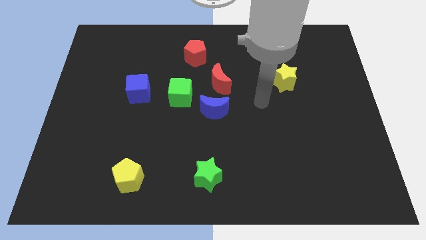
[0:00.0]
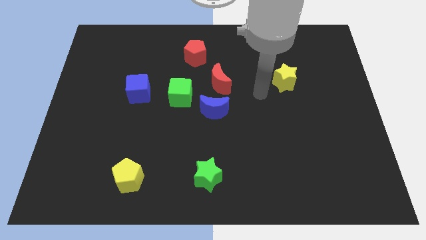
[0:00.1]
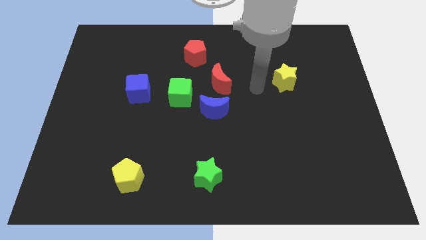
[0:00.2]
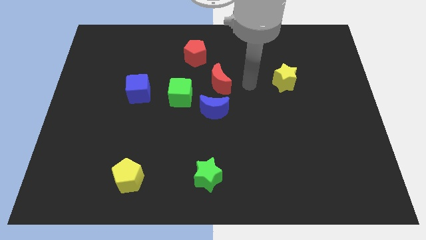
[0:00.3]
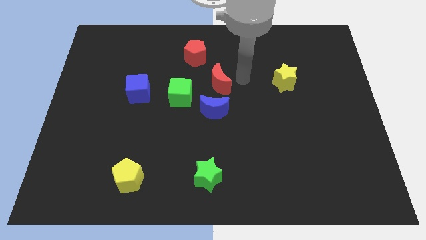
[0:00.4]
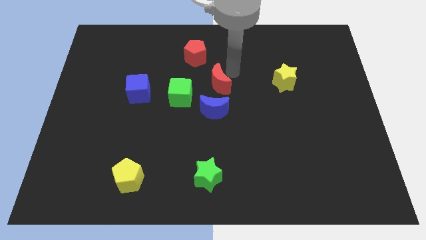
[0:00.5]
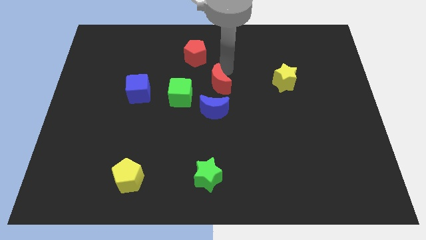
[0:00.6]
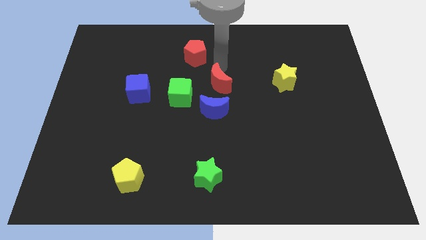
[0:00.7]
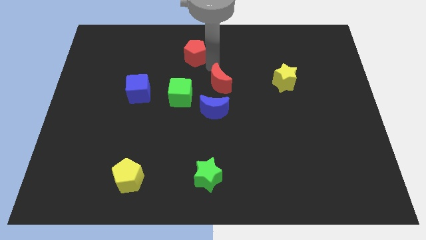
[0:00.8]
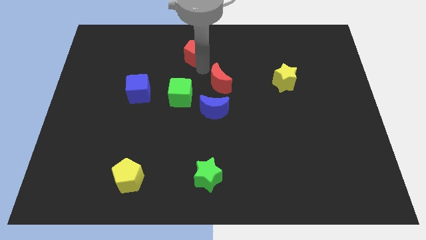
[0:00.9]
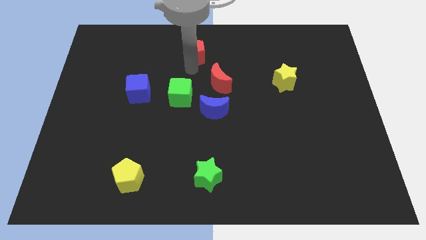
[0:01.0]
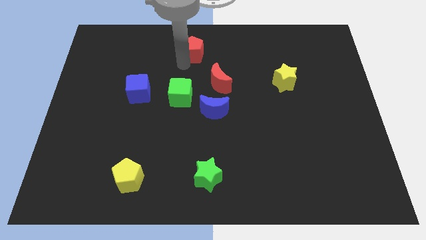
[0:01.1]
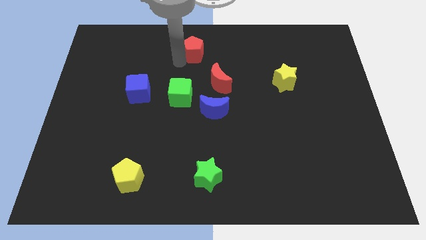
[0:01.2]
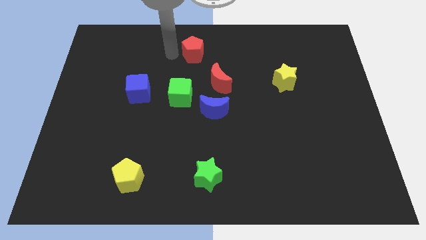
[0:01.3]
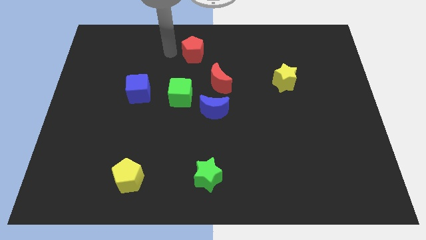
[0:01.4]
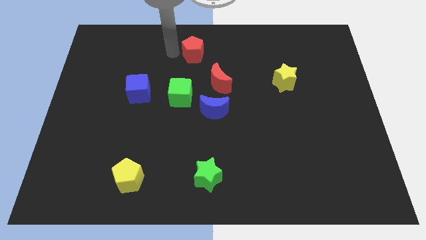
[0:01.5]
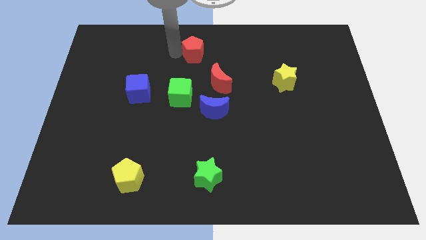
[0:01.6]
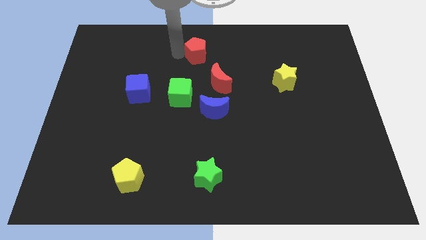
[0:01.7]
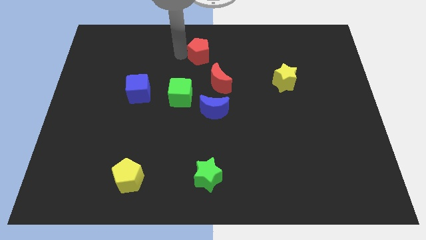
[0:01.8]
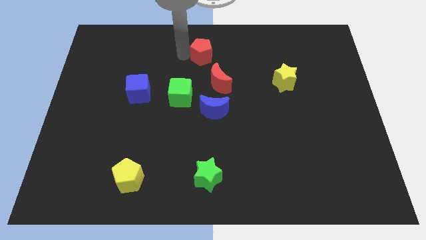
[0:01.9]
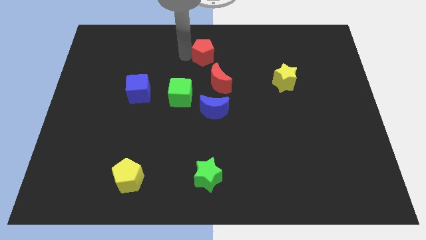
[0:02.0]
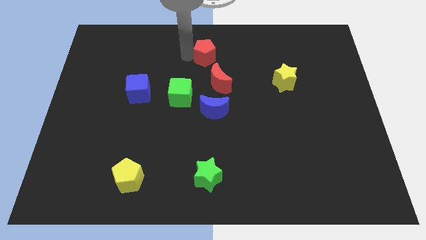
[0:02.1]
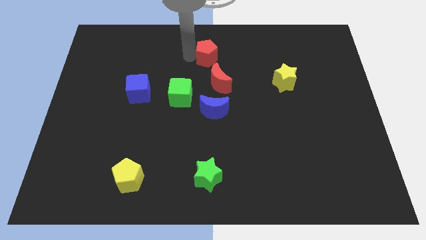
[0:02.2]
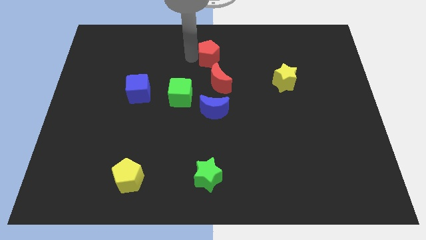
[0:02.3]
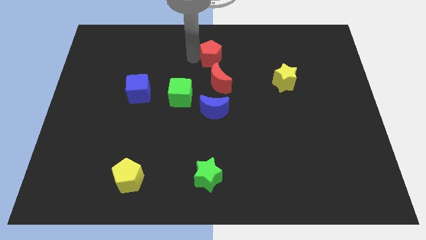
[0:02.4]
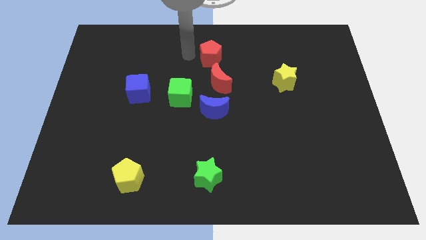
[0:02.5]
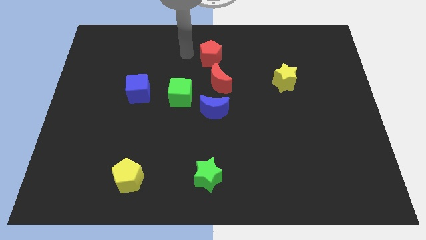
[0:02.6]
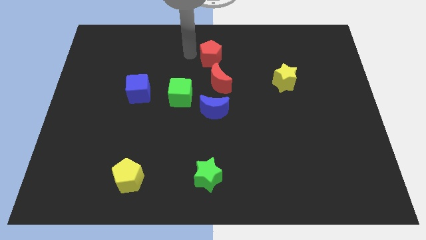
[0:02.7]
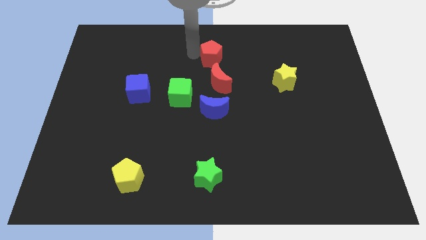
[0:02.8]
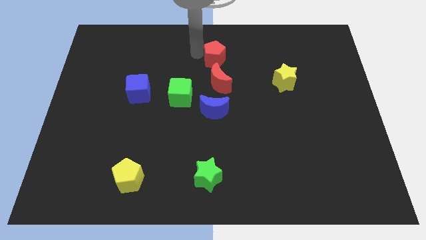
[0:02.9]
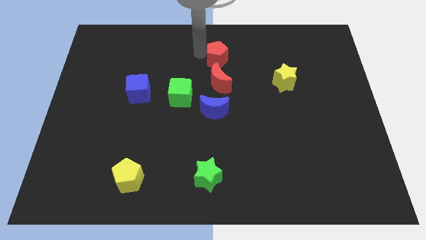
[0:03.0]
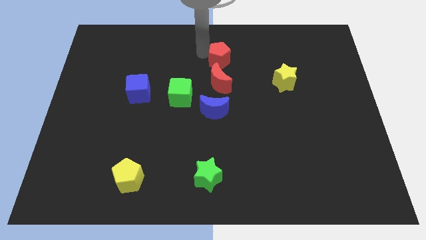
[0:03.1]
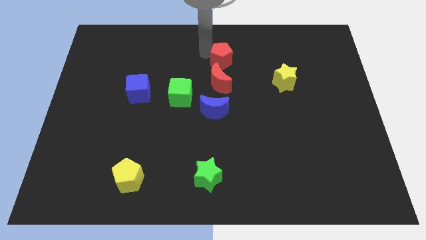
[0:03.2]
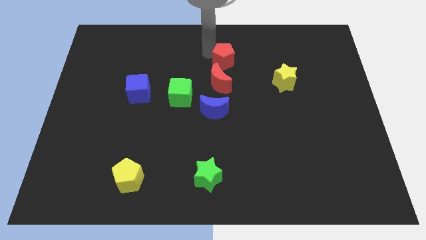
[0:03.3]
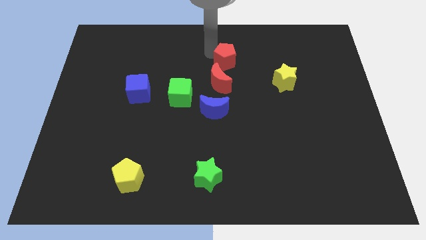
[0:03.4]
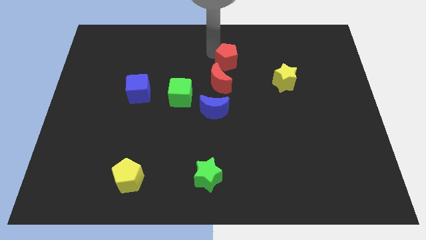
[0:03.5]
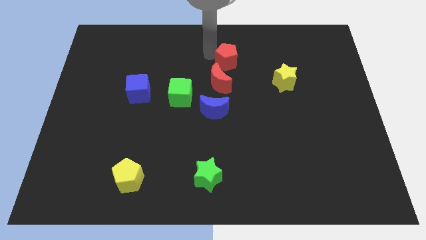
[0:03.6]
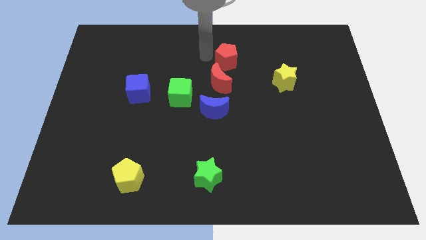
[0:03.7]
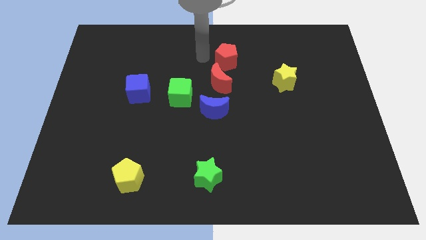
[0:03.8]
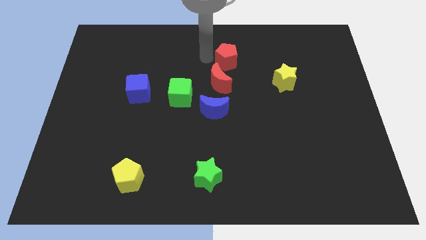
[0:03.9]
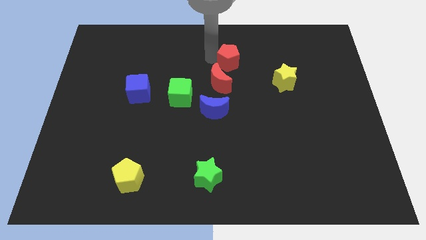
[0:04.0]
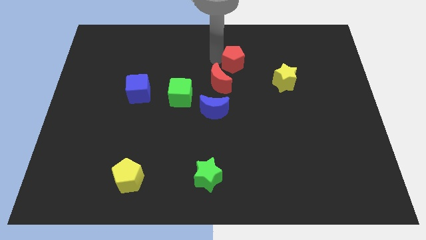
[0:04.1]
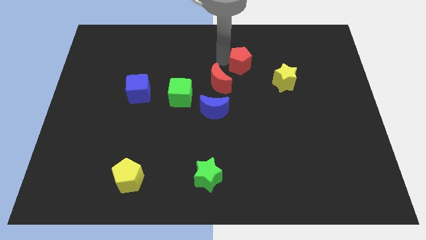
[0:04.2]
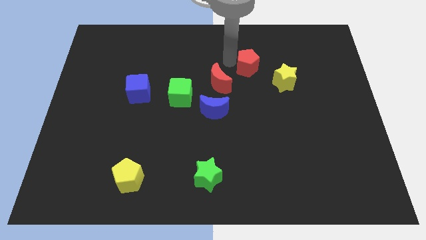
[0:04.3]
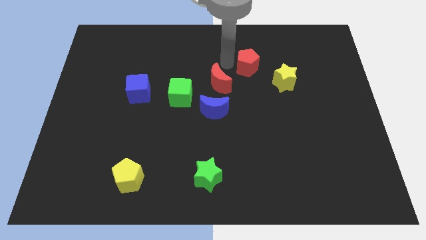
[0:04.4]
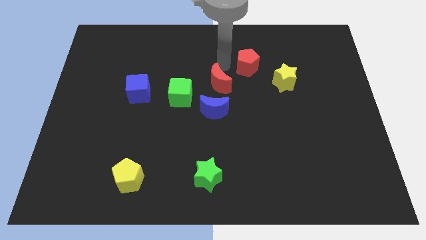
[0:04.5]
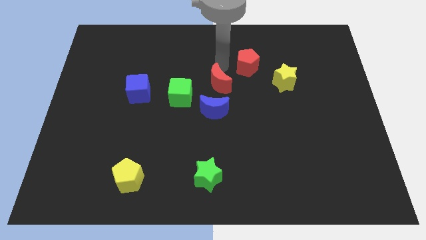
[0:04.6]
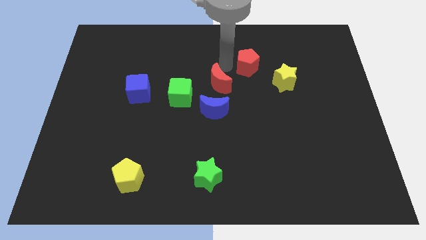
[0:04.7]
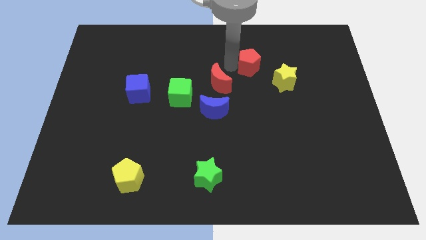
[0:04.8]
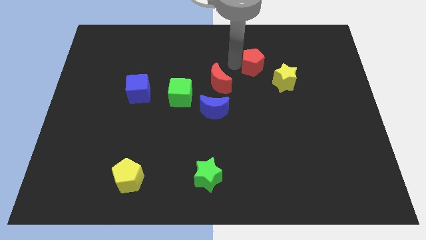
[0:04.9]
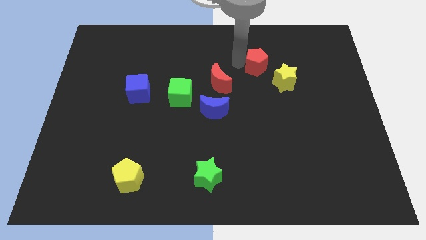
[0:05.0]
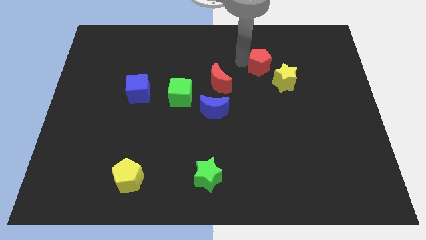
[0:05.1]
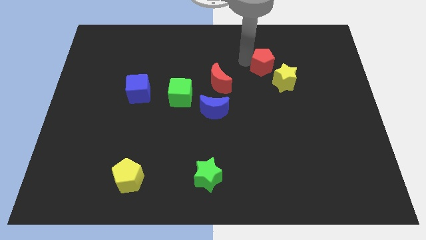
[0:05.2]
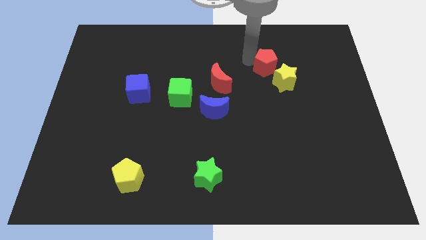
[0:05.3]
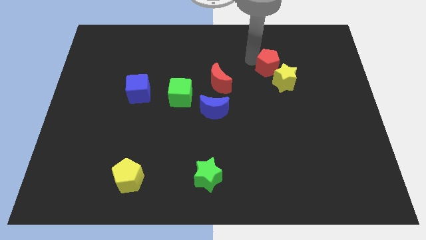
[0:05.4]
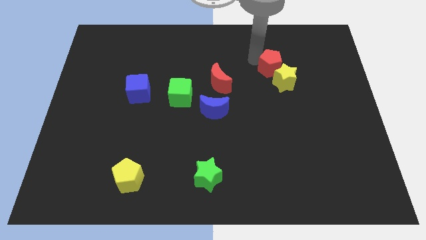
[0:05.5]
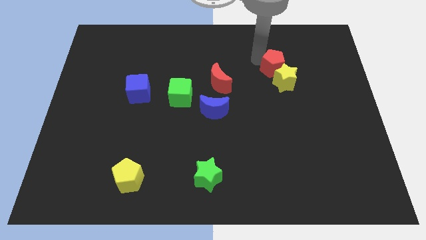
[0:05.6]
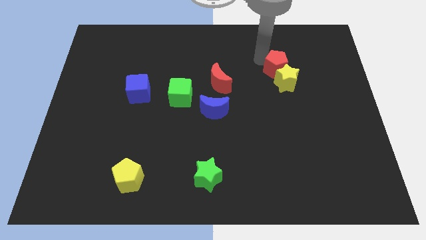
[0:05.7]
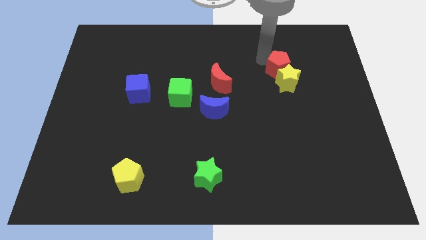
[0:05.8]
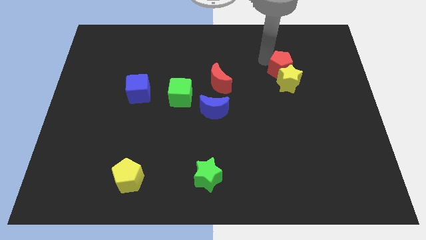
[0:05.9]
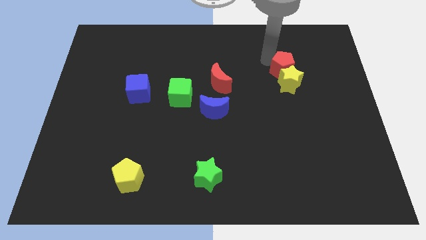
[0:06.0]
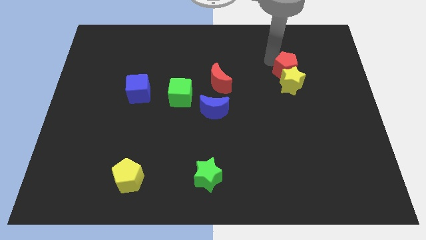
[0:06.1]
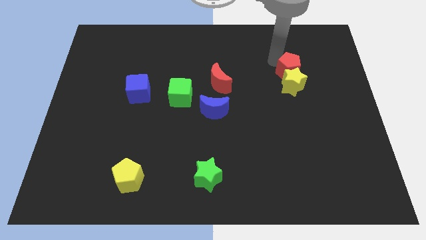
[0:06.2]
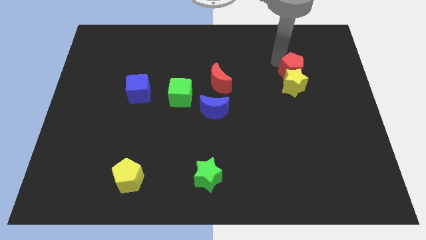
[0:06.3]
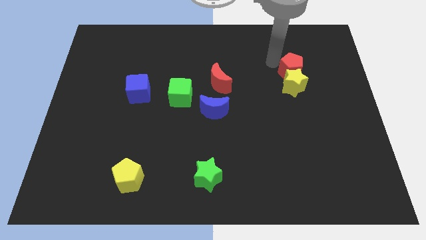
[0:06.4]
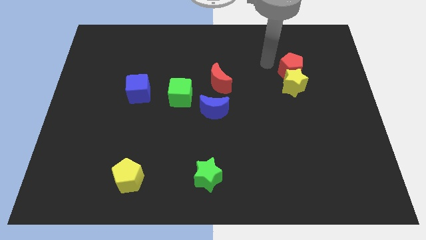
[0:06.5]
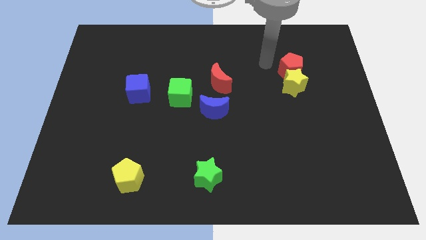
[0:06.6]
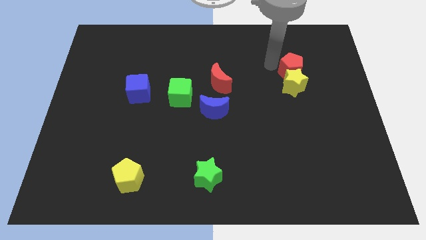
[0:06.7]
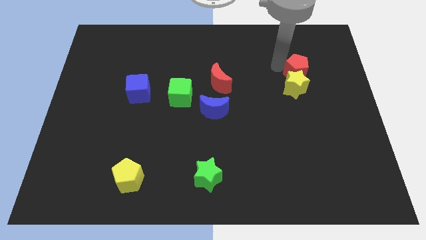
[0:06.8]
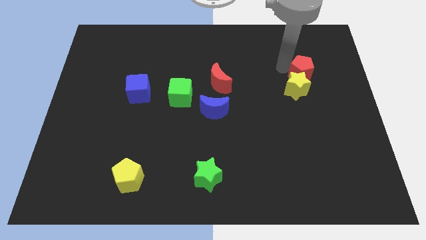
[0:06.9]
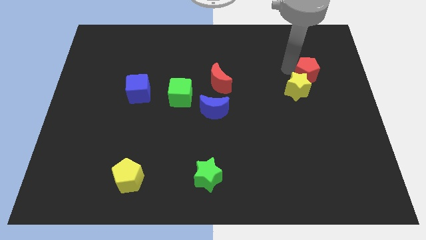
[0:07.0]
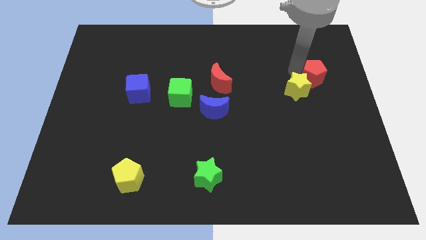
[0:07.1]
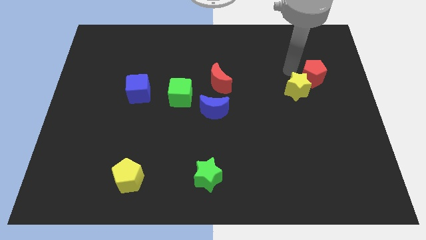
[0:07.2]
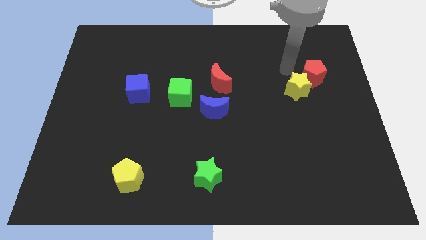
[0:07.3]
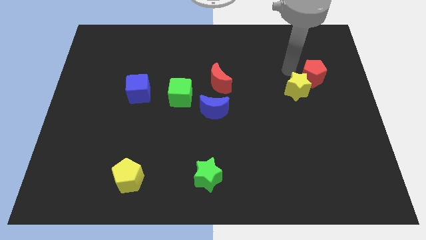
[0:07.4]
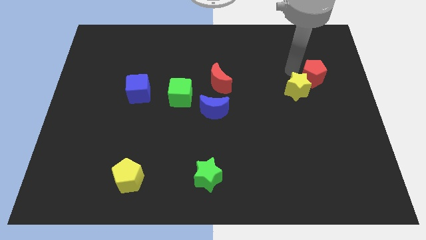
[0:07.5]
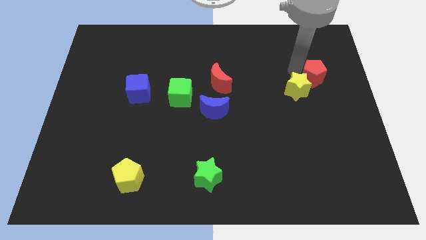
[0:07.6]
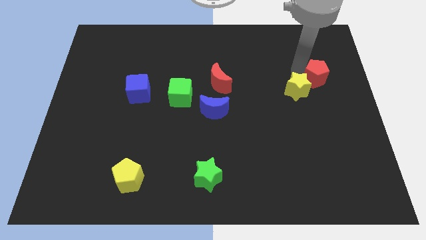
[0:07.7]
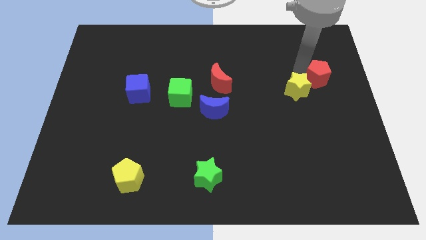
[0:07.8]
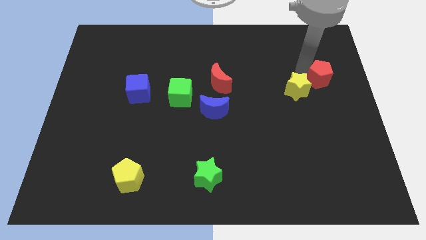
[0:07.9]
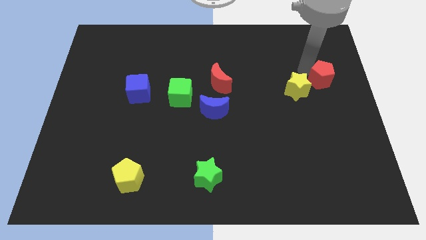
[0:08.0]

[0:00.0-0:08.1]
push the red pentagon to the right side
